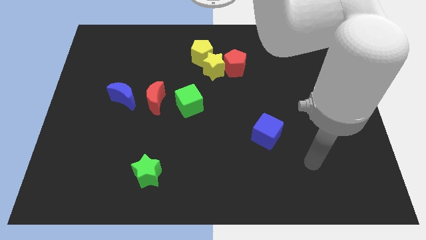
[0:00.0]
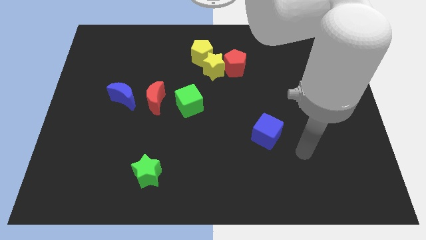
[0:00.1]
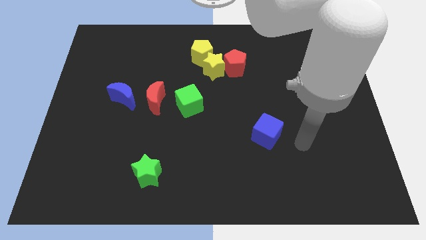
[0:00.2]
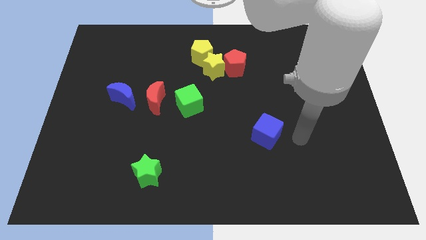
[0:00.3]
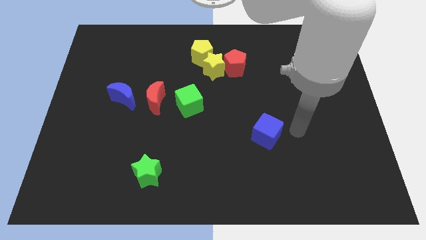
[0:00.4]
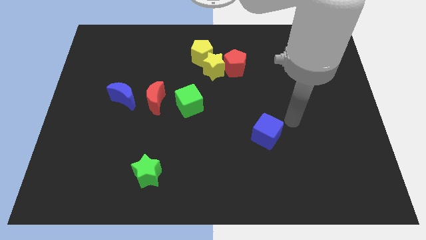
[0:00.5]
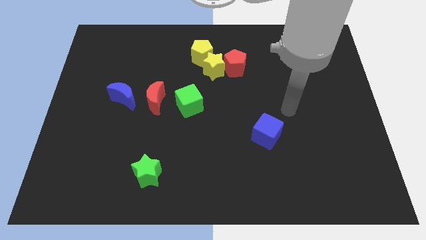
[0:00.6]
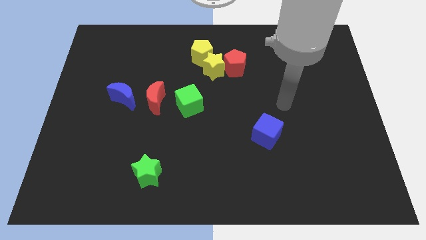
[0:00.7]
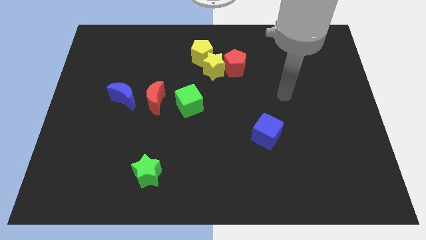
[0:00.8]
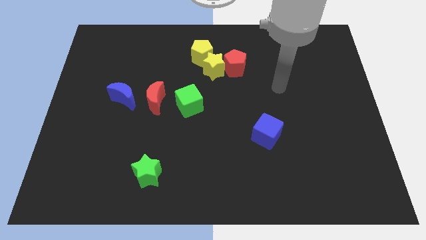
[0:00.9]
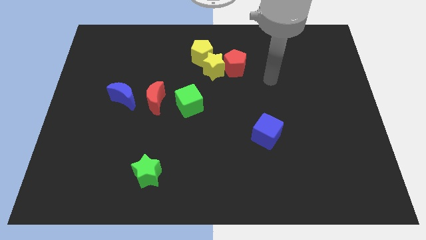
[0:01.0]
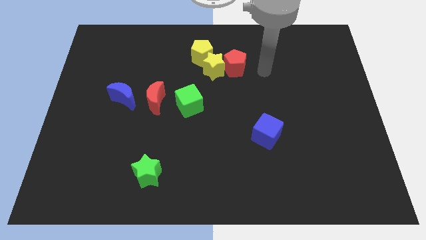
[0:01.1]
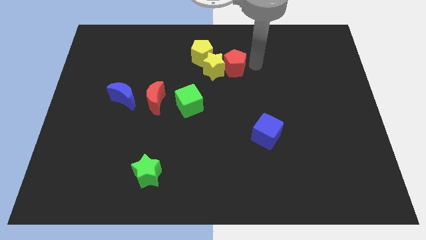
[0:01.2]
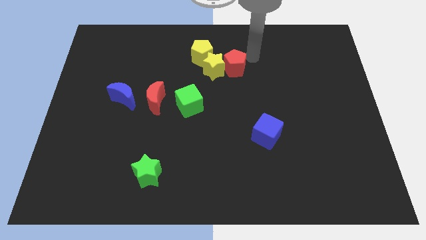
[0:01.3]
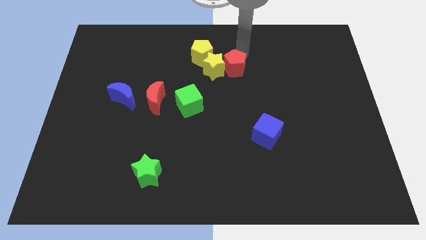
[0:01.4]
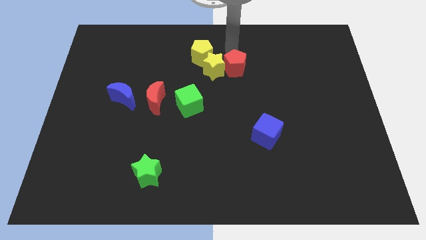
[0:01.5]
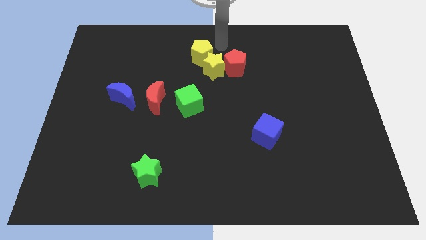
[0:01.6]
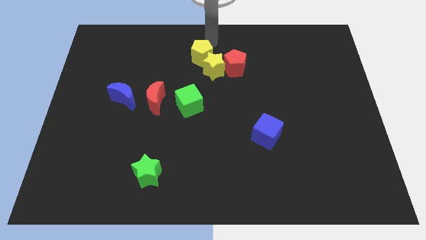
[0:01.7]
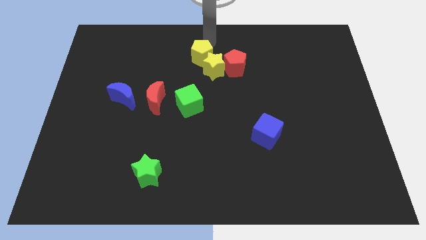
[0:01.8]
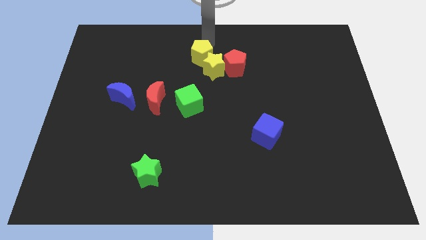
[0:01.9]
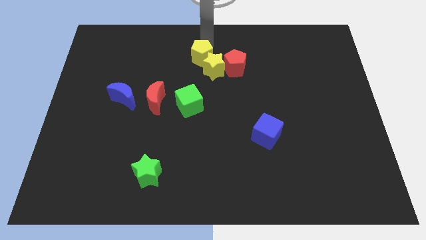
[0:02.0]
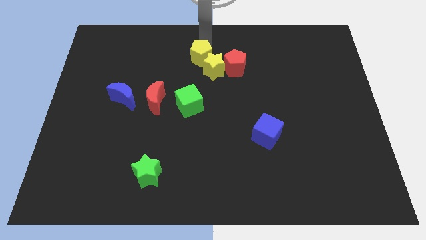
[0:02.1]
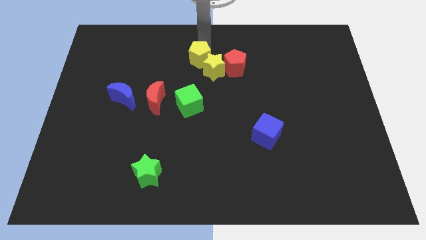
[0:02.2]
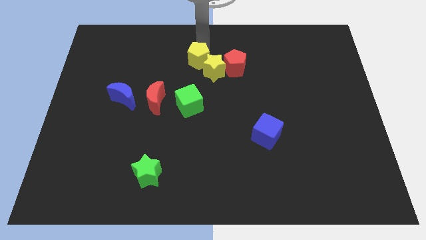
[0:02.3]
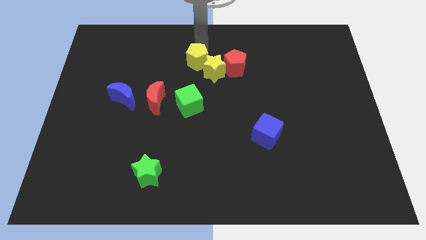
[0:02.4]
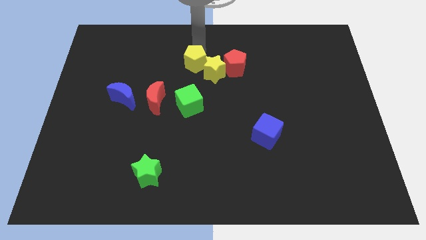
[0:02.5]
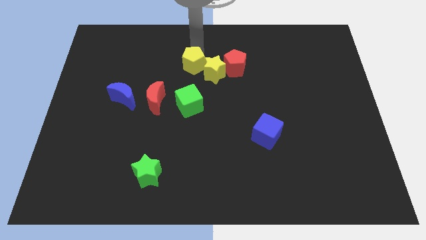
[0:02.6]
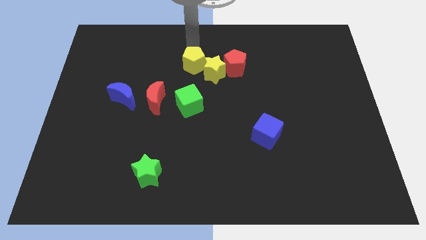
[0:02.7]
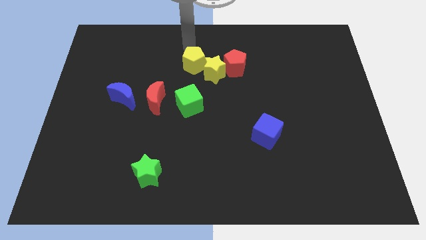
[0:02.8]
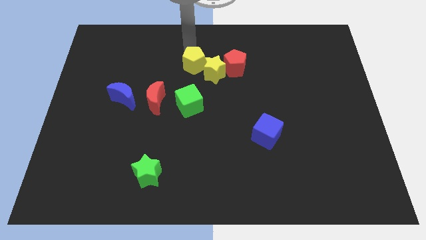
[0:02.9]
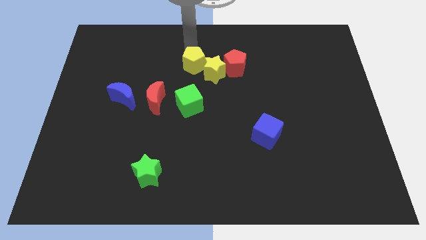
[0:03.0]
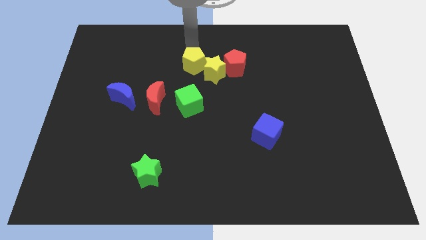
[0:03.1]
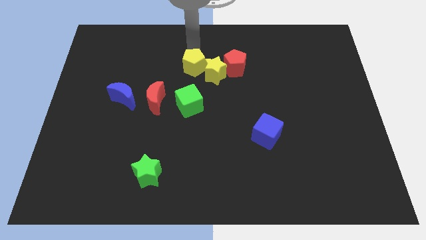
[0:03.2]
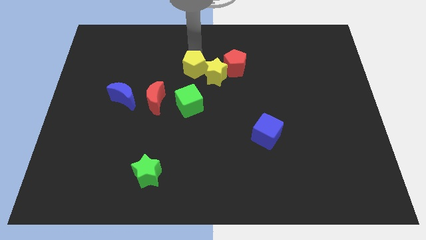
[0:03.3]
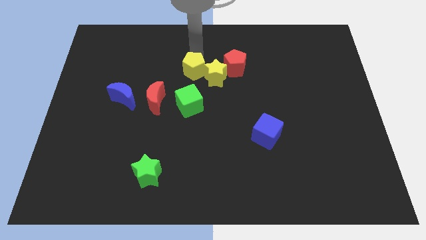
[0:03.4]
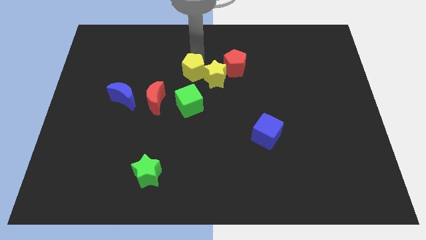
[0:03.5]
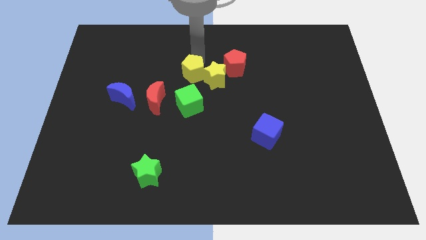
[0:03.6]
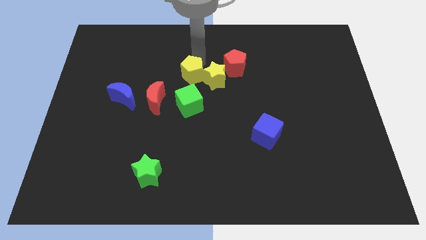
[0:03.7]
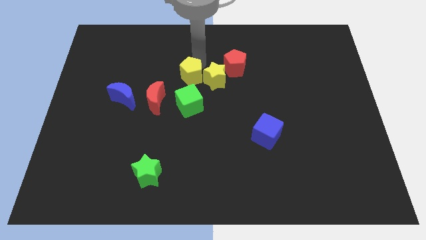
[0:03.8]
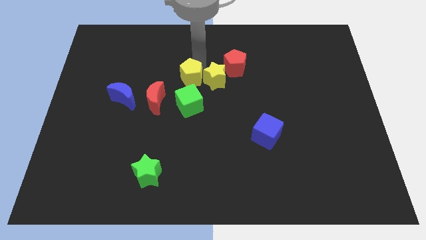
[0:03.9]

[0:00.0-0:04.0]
slightly push the yellow pentagon downwards

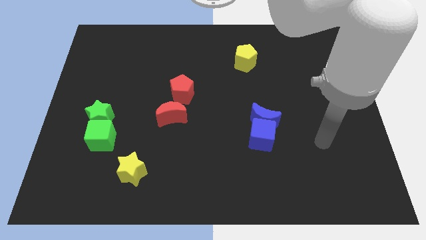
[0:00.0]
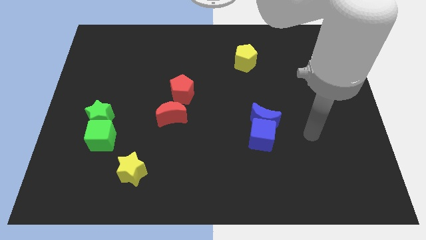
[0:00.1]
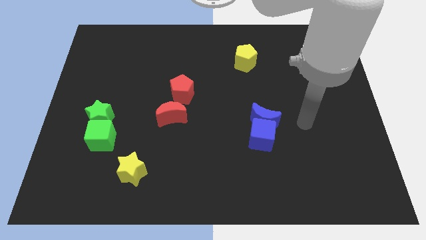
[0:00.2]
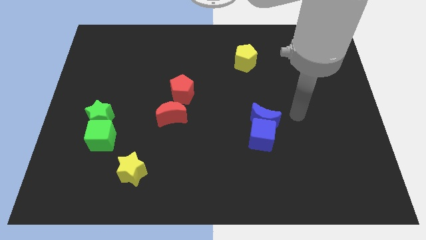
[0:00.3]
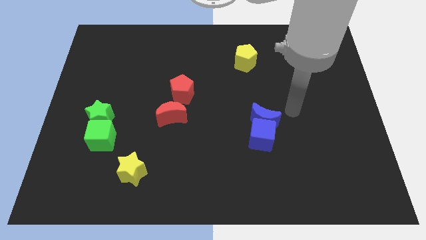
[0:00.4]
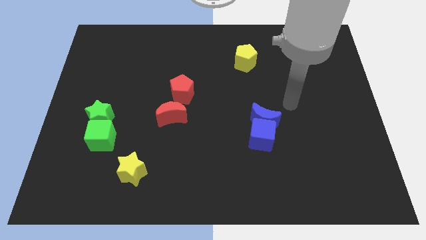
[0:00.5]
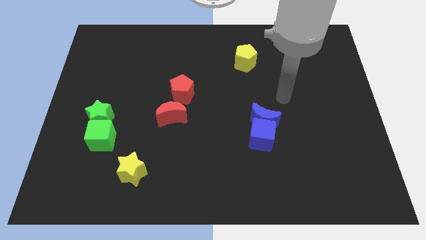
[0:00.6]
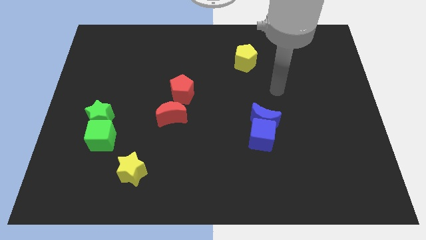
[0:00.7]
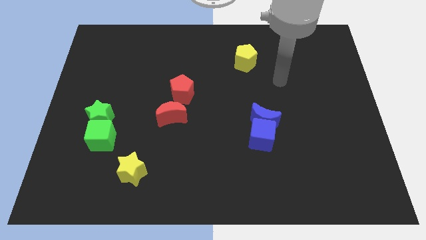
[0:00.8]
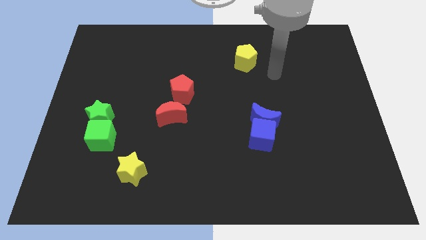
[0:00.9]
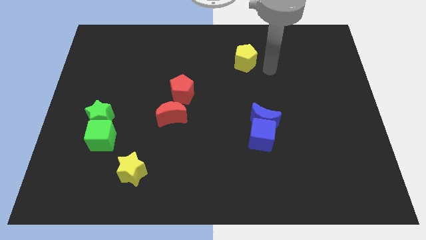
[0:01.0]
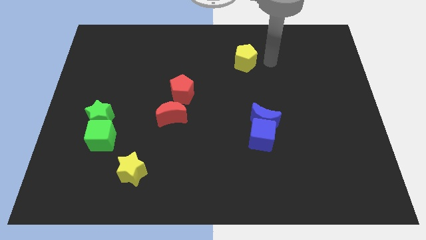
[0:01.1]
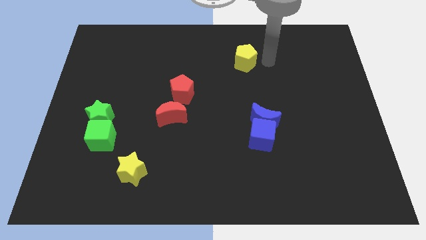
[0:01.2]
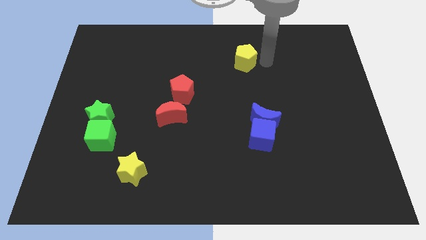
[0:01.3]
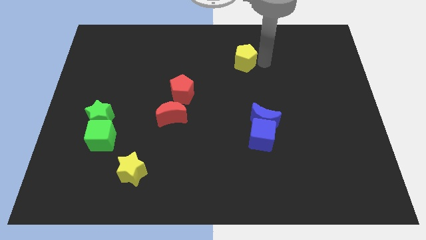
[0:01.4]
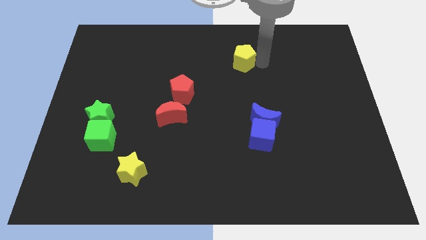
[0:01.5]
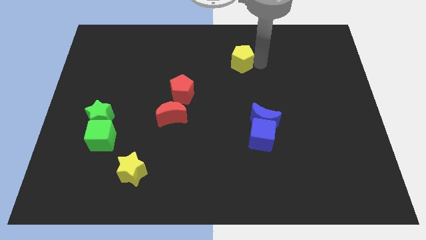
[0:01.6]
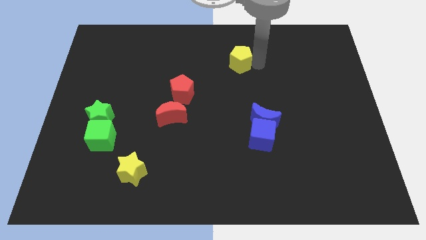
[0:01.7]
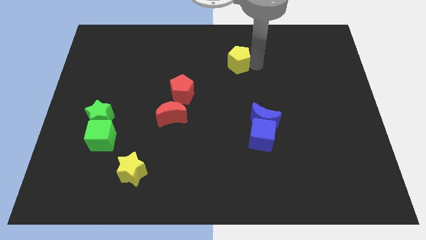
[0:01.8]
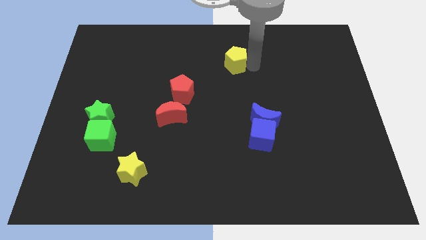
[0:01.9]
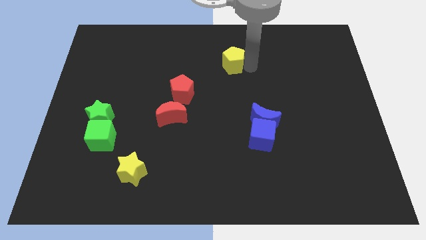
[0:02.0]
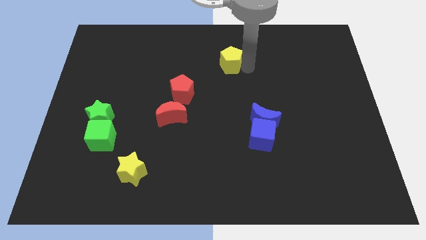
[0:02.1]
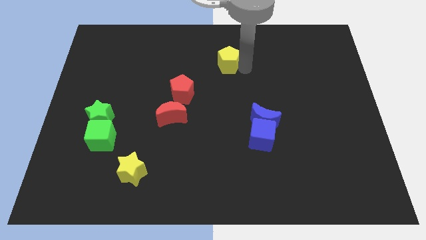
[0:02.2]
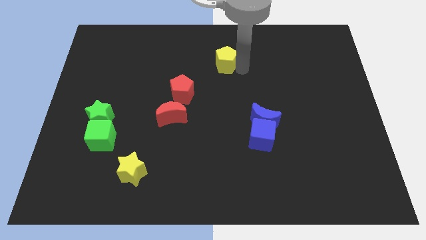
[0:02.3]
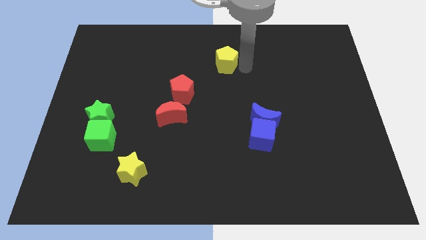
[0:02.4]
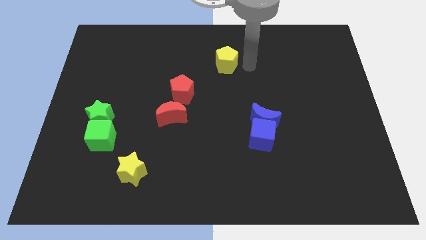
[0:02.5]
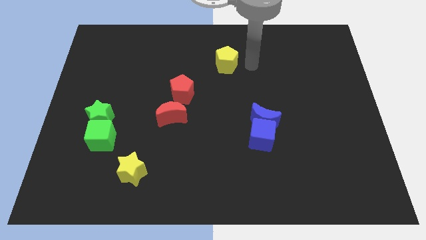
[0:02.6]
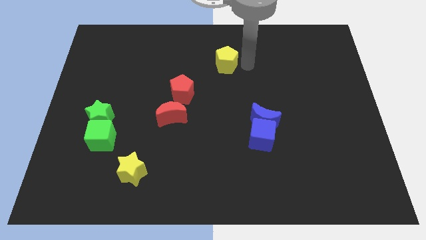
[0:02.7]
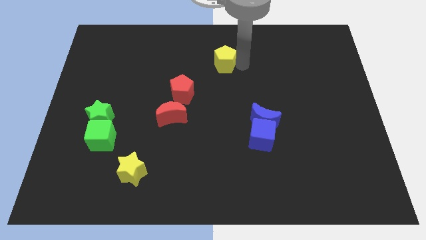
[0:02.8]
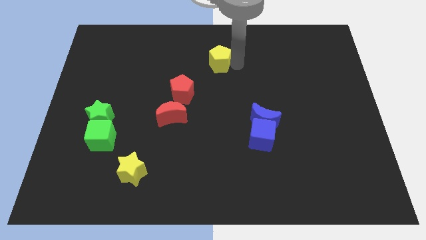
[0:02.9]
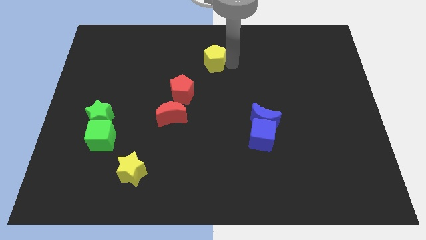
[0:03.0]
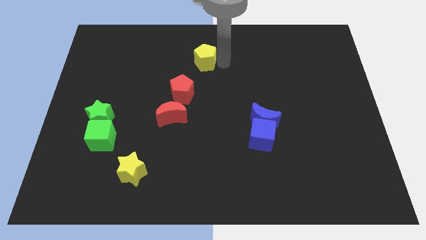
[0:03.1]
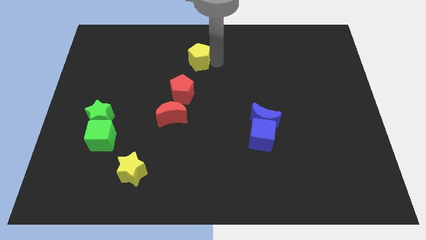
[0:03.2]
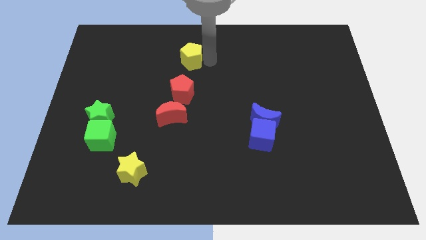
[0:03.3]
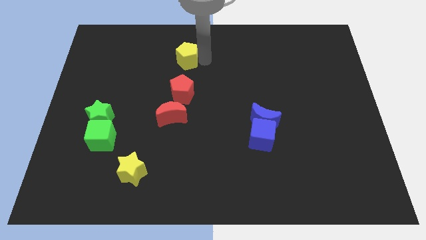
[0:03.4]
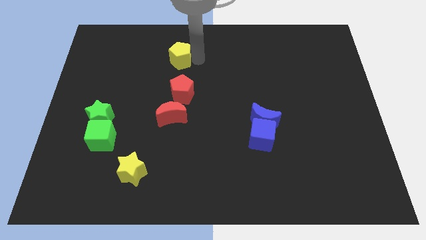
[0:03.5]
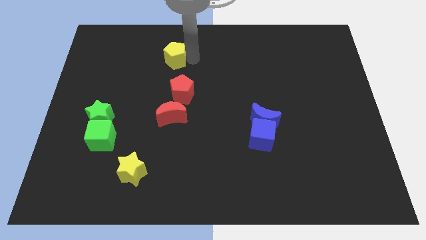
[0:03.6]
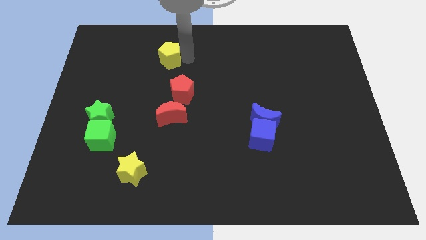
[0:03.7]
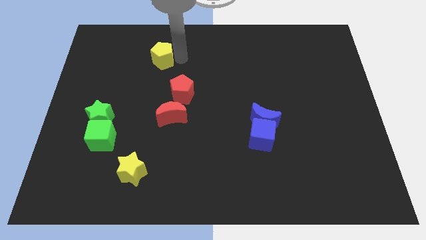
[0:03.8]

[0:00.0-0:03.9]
push the yellow pentagon to the left

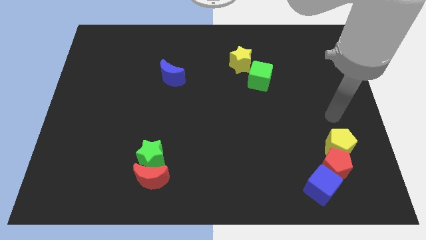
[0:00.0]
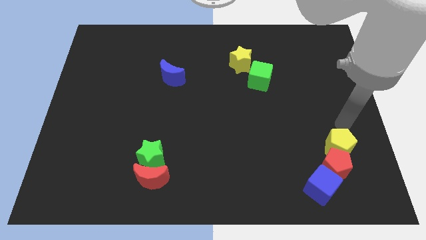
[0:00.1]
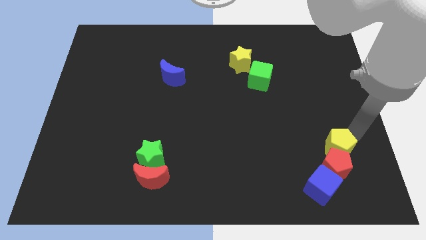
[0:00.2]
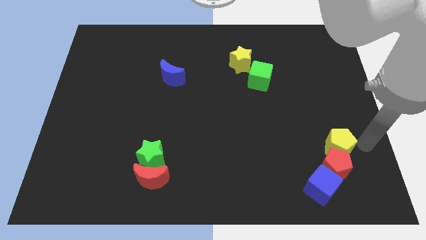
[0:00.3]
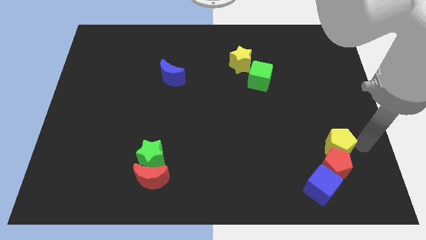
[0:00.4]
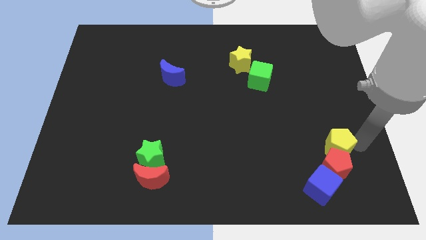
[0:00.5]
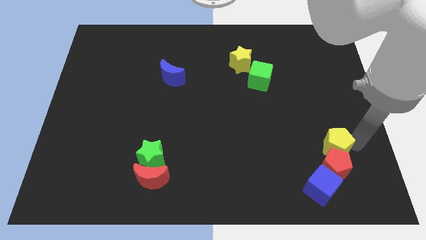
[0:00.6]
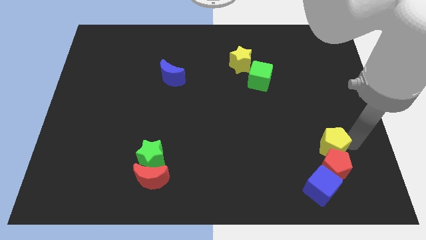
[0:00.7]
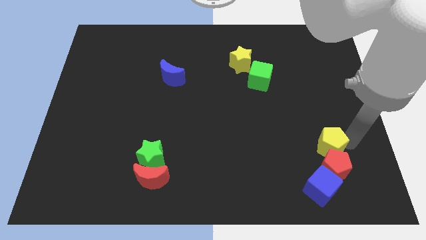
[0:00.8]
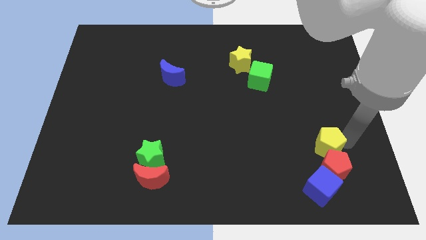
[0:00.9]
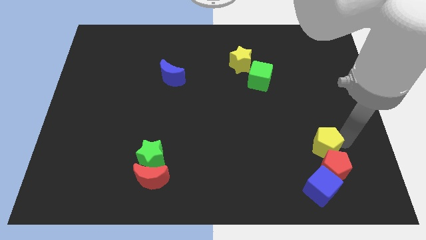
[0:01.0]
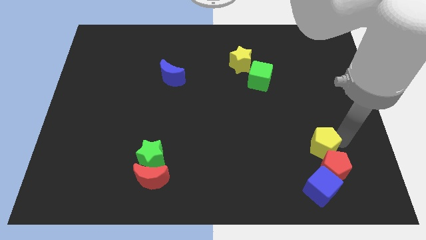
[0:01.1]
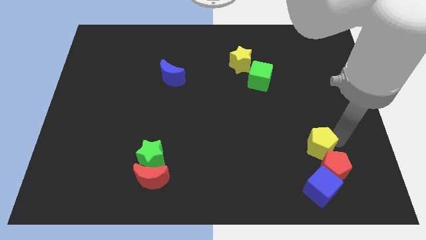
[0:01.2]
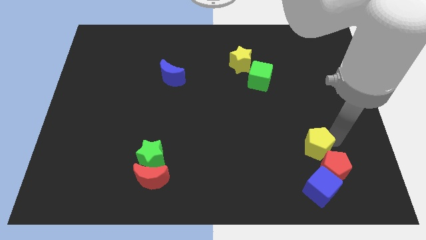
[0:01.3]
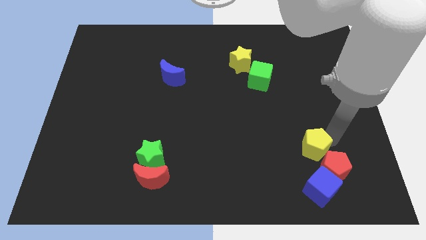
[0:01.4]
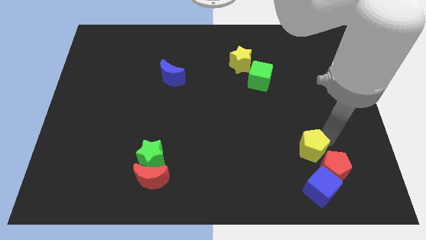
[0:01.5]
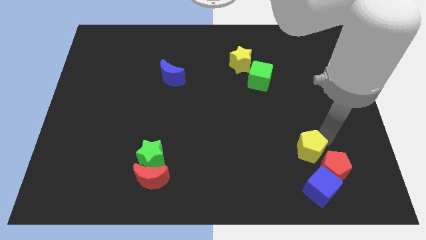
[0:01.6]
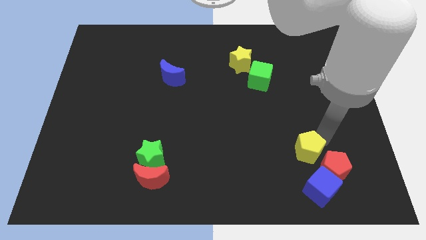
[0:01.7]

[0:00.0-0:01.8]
push the yellow pentagon to the left a little bit
